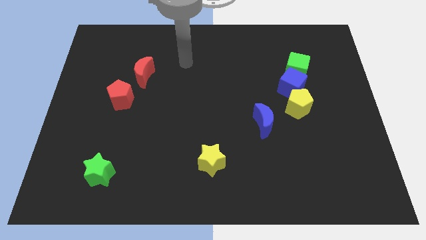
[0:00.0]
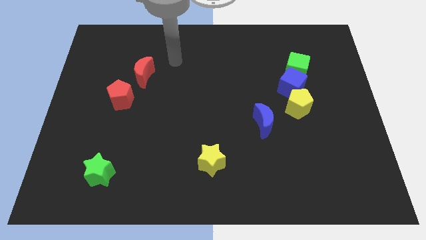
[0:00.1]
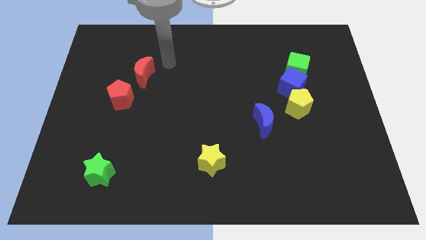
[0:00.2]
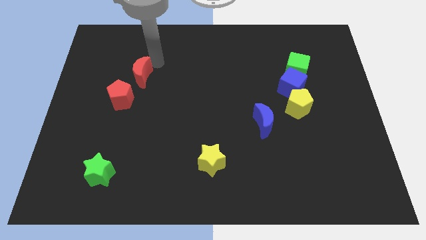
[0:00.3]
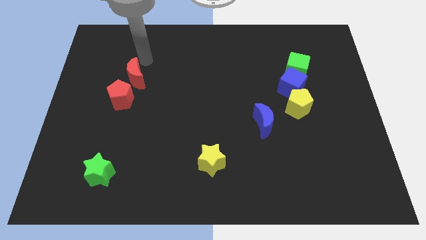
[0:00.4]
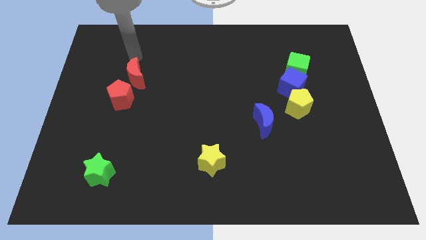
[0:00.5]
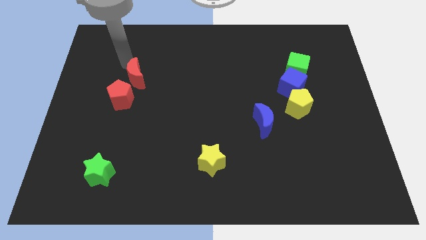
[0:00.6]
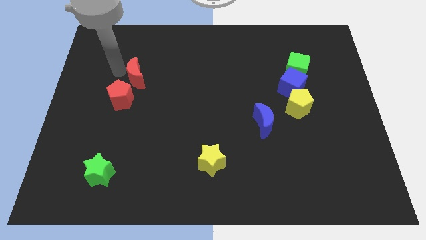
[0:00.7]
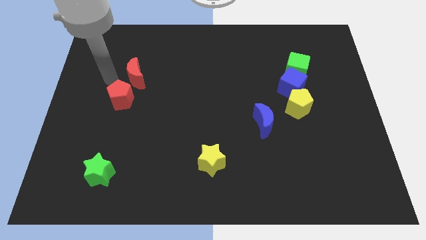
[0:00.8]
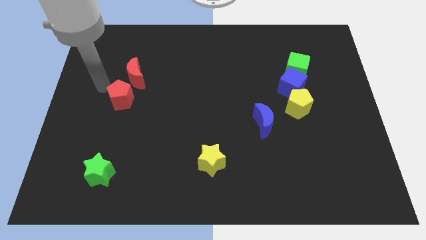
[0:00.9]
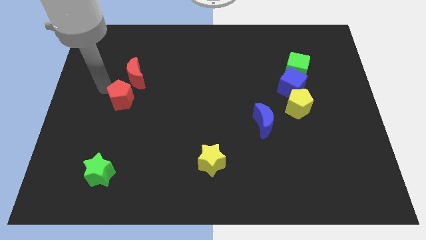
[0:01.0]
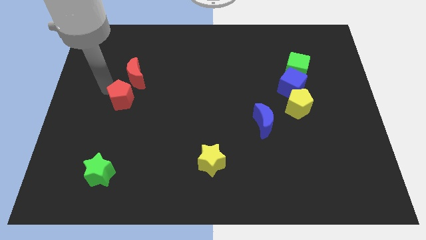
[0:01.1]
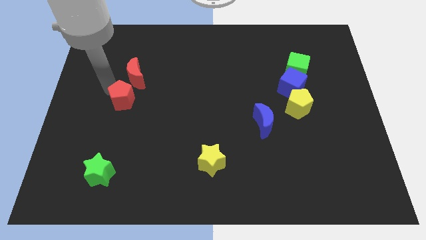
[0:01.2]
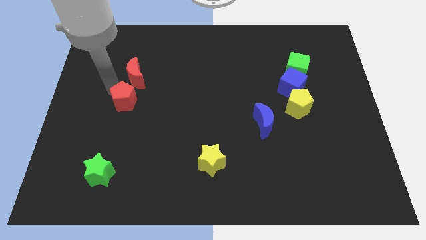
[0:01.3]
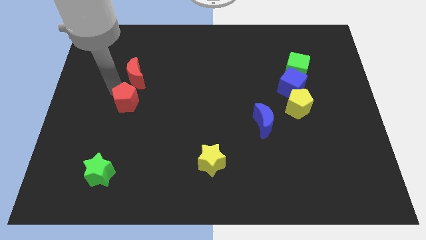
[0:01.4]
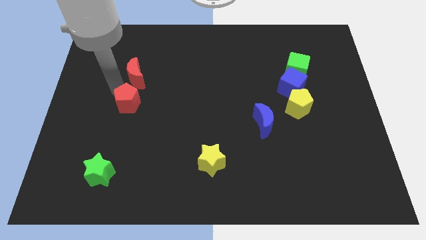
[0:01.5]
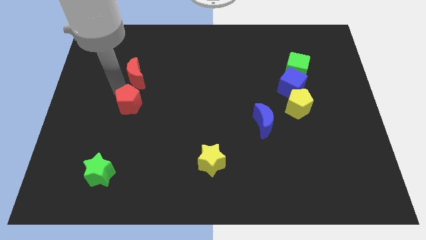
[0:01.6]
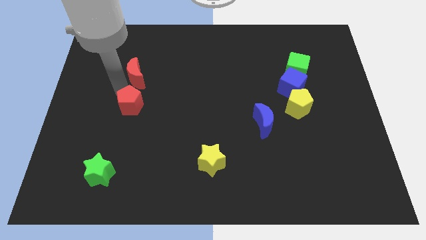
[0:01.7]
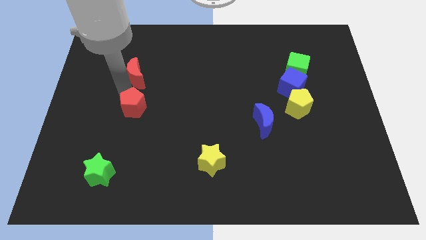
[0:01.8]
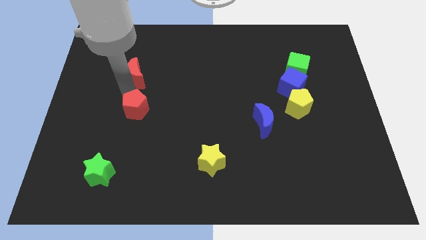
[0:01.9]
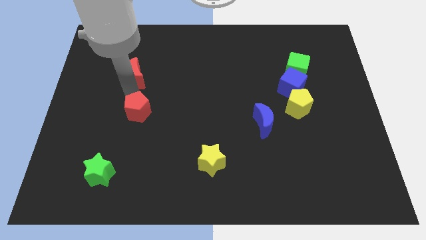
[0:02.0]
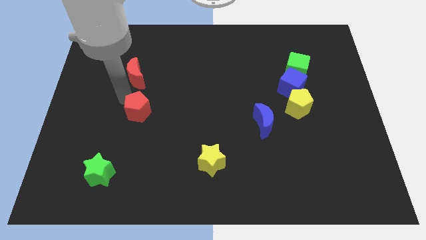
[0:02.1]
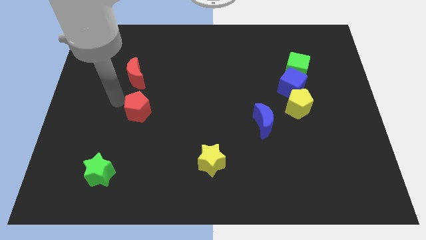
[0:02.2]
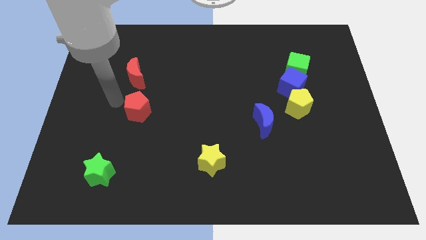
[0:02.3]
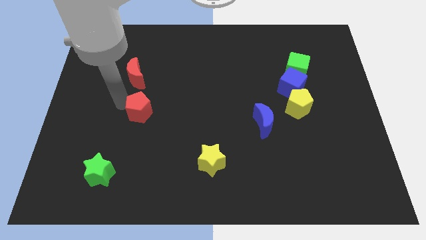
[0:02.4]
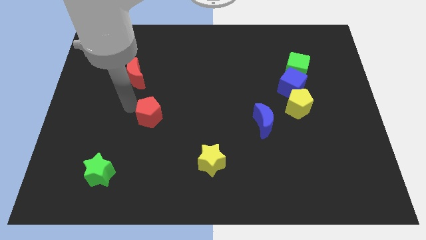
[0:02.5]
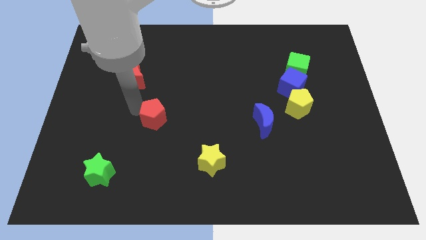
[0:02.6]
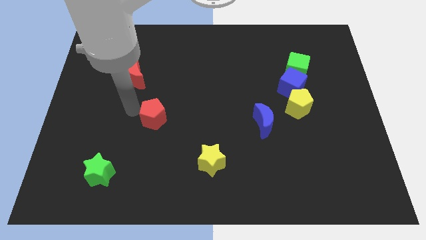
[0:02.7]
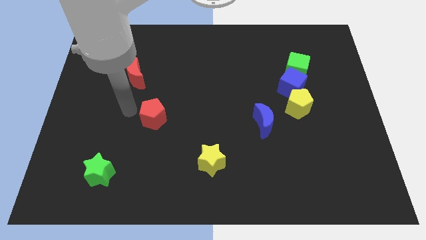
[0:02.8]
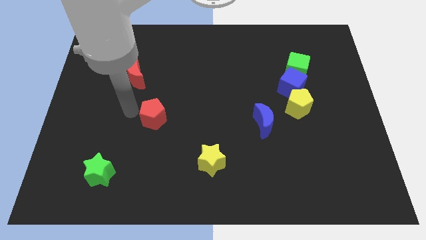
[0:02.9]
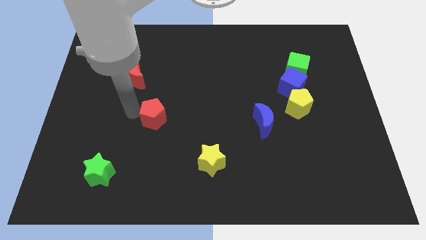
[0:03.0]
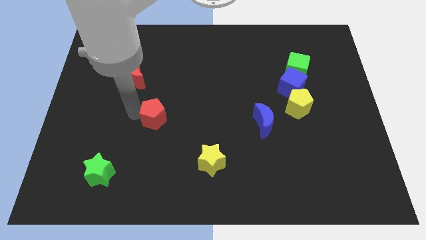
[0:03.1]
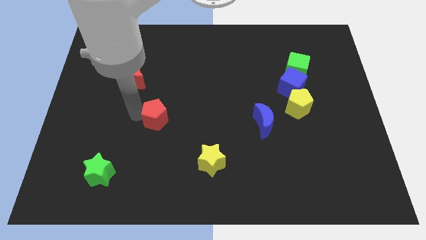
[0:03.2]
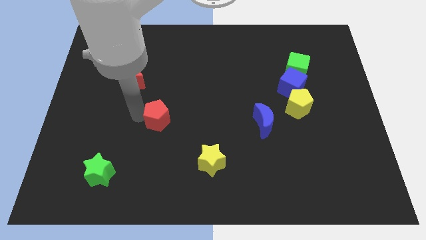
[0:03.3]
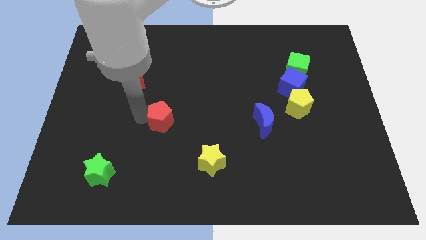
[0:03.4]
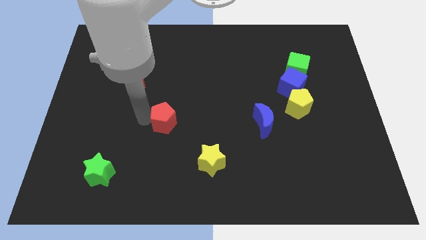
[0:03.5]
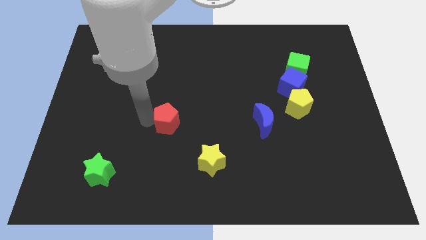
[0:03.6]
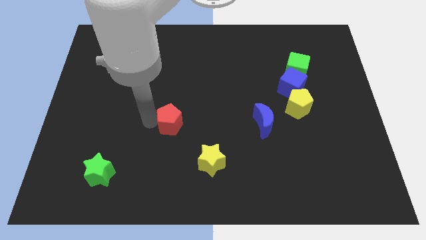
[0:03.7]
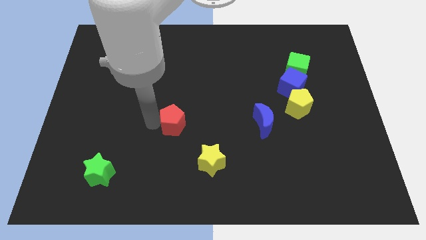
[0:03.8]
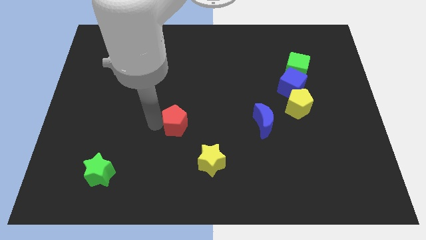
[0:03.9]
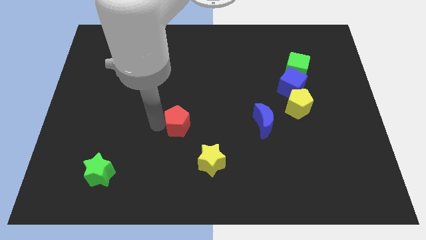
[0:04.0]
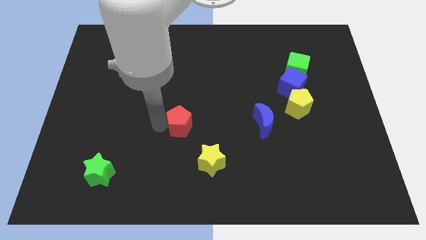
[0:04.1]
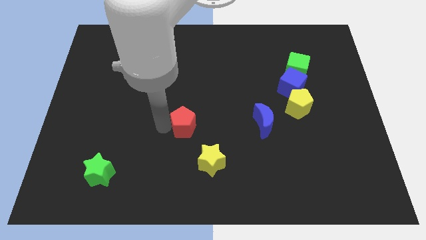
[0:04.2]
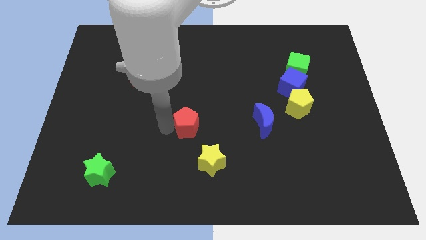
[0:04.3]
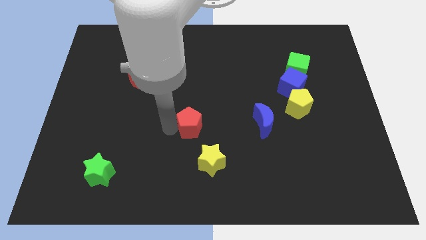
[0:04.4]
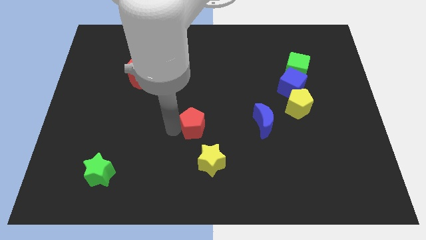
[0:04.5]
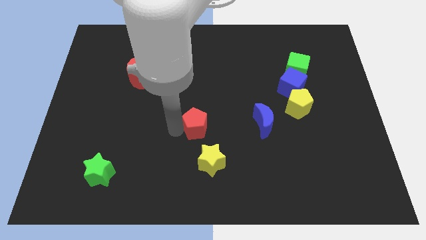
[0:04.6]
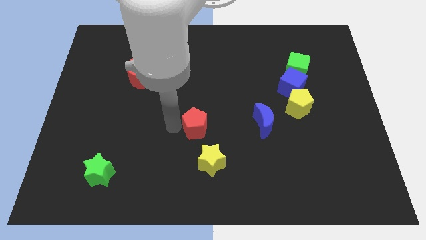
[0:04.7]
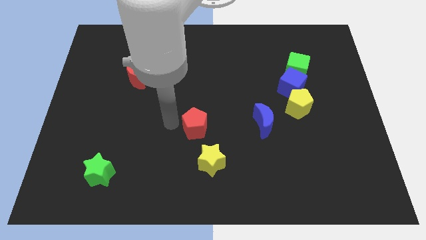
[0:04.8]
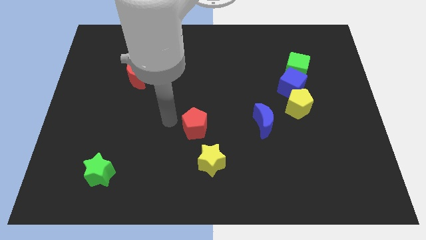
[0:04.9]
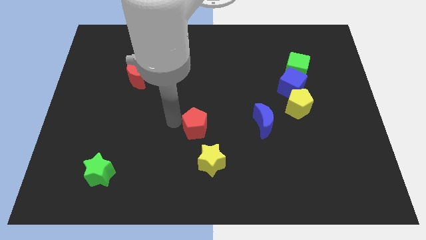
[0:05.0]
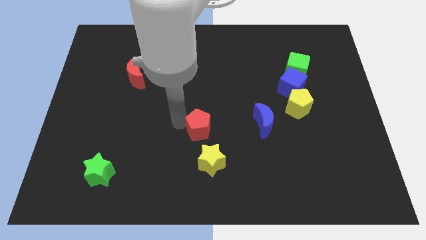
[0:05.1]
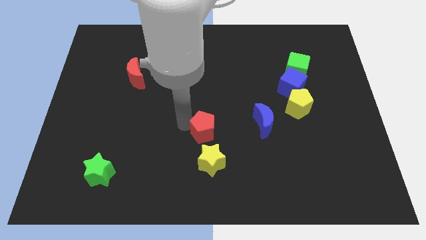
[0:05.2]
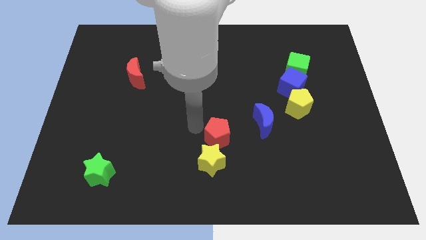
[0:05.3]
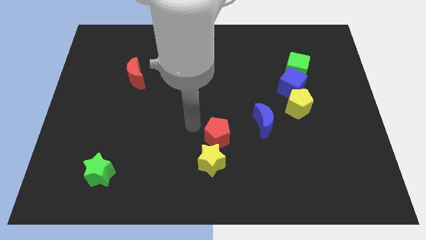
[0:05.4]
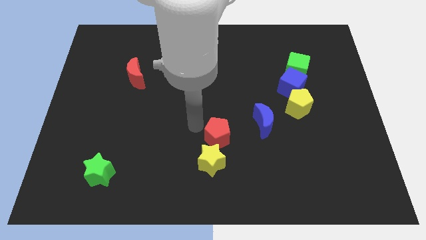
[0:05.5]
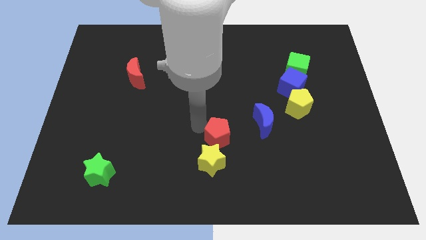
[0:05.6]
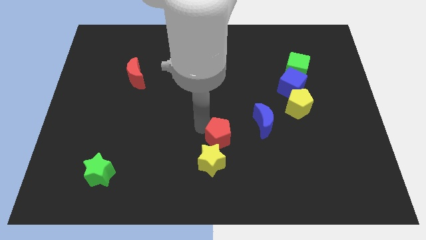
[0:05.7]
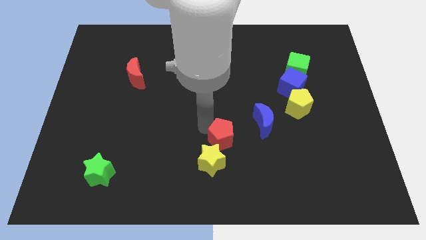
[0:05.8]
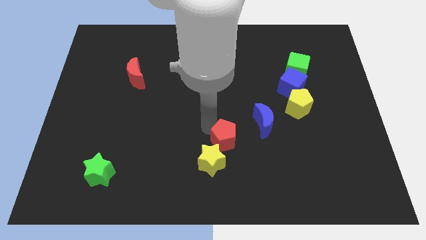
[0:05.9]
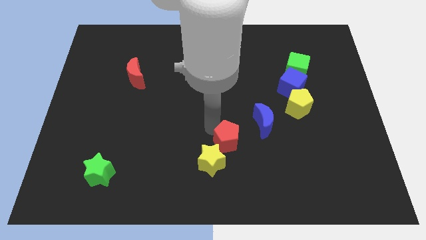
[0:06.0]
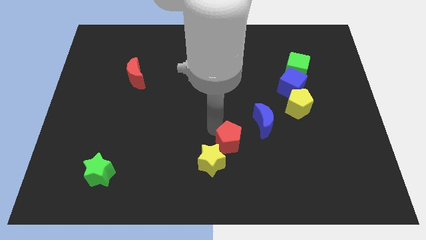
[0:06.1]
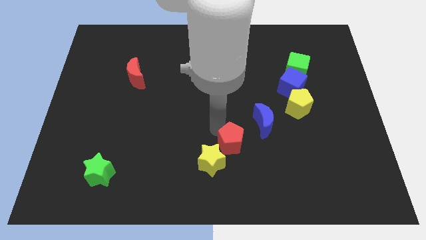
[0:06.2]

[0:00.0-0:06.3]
put the red pentagon just right of the yellow star

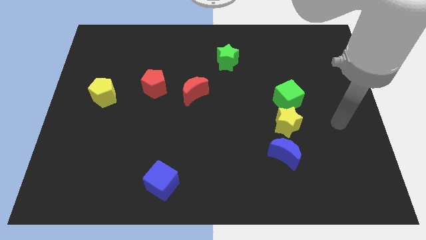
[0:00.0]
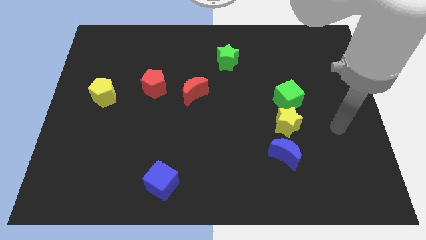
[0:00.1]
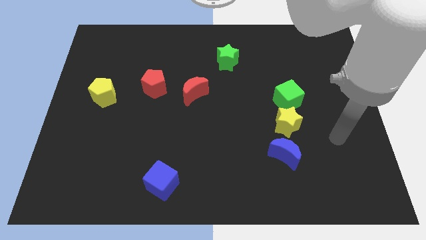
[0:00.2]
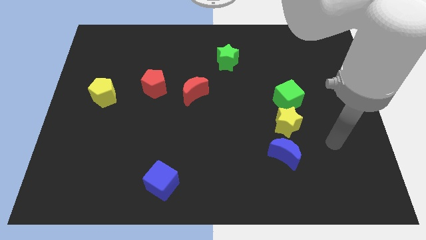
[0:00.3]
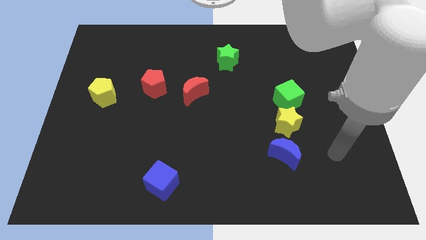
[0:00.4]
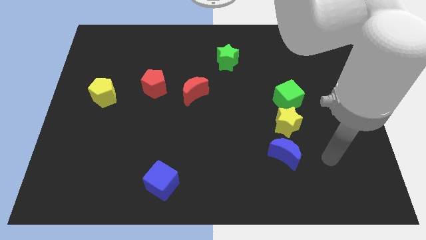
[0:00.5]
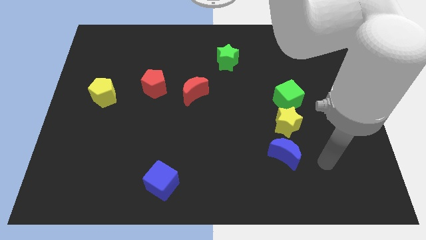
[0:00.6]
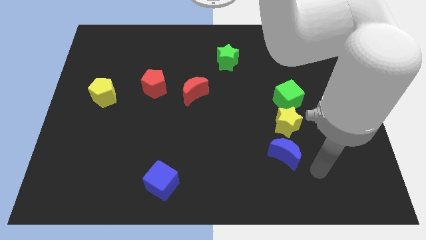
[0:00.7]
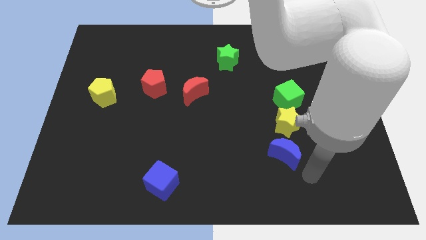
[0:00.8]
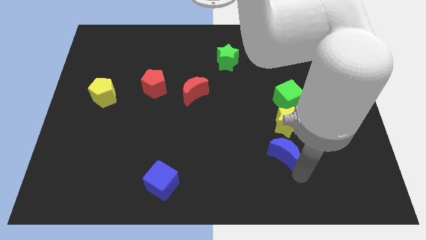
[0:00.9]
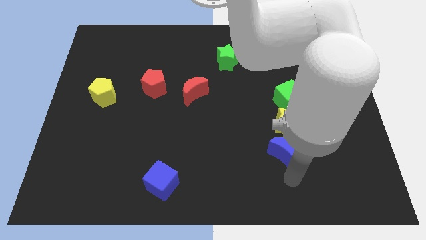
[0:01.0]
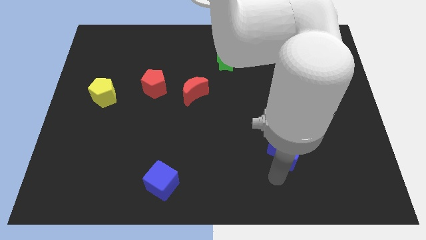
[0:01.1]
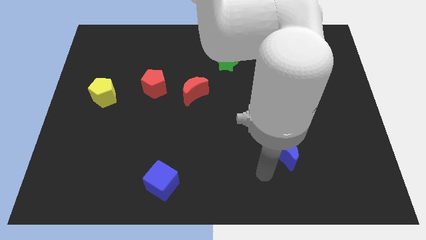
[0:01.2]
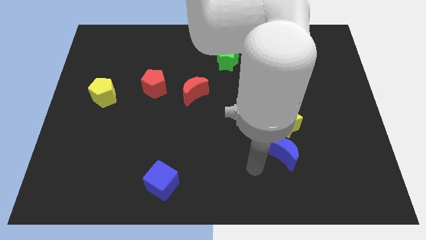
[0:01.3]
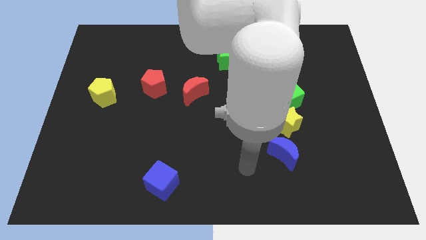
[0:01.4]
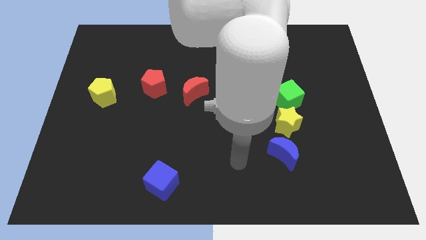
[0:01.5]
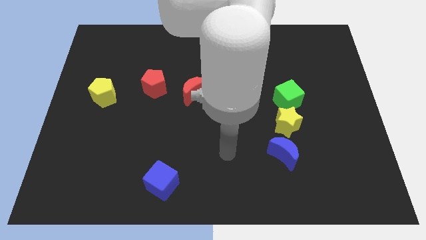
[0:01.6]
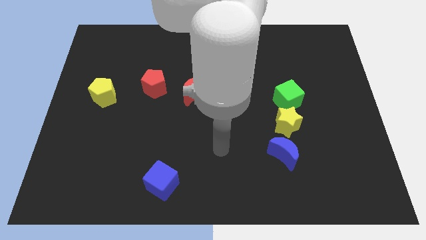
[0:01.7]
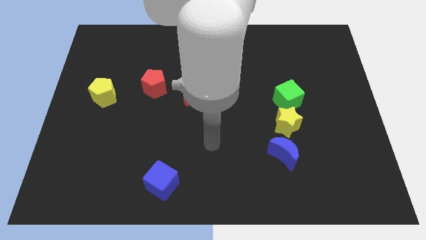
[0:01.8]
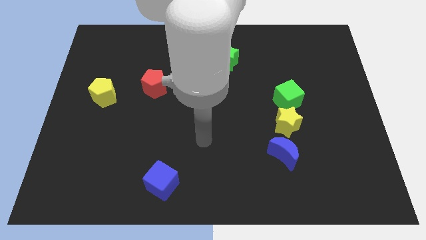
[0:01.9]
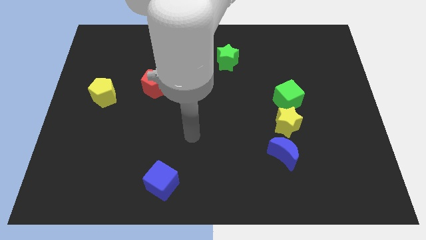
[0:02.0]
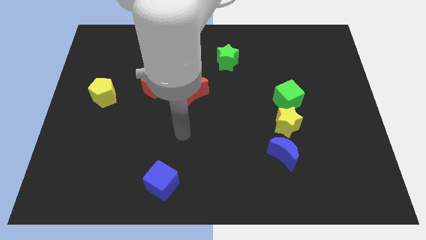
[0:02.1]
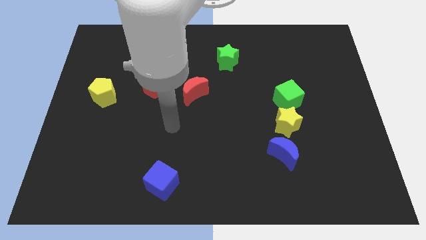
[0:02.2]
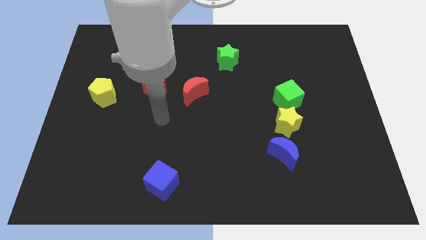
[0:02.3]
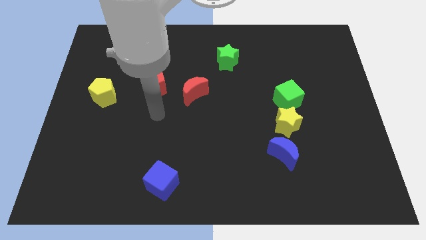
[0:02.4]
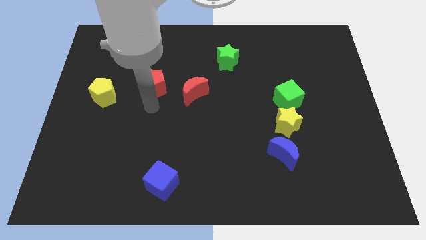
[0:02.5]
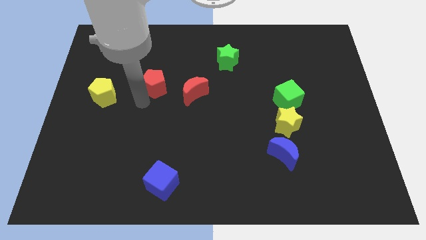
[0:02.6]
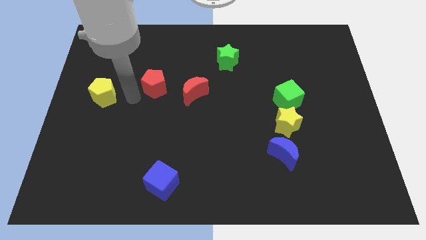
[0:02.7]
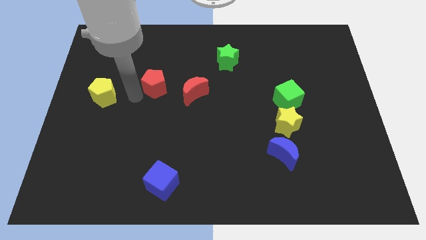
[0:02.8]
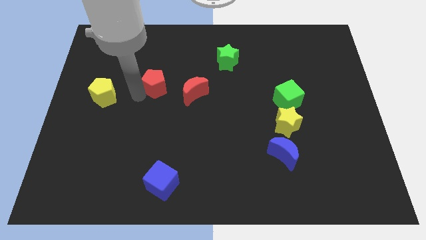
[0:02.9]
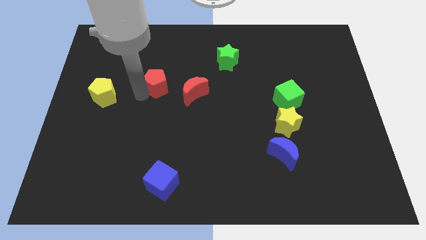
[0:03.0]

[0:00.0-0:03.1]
push the red pentagon to the top left side of the red moon
